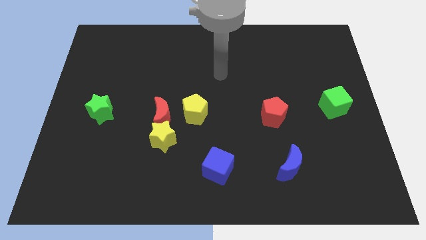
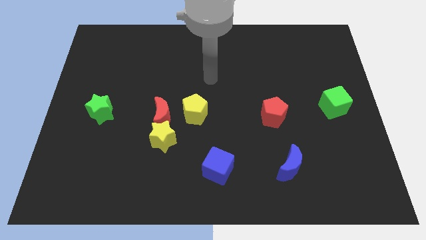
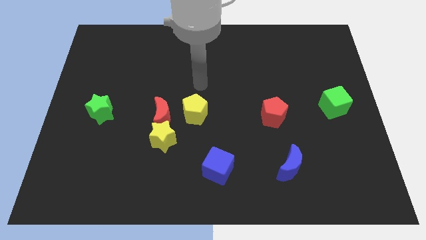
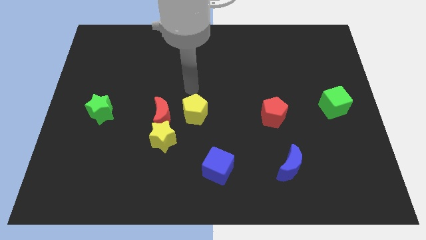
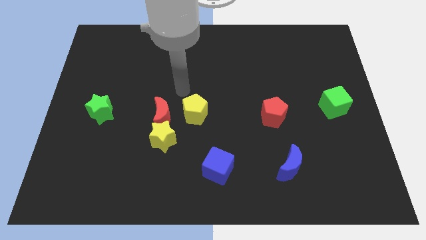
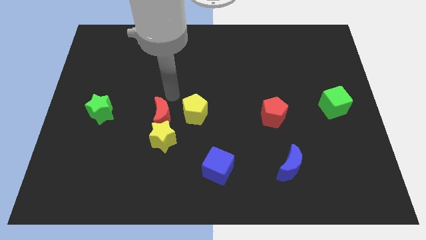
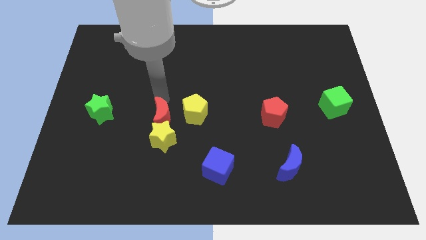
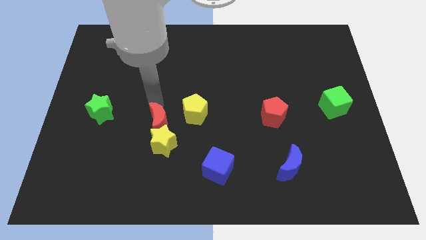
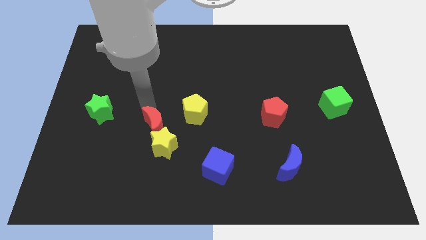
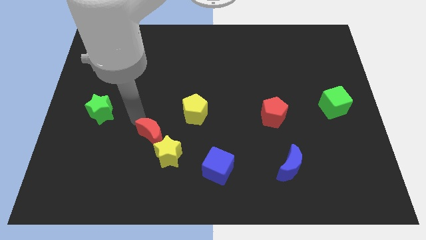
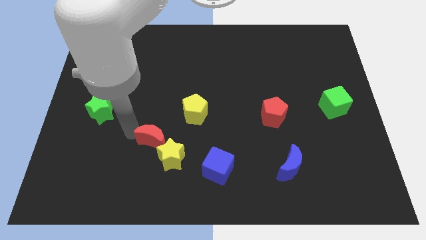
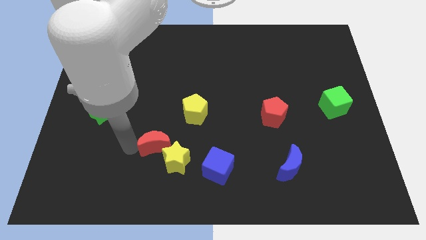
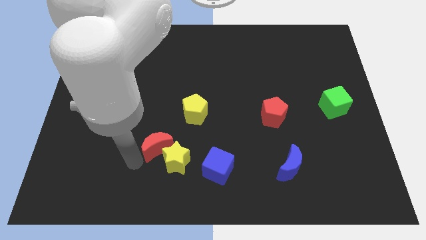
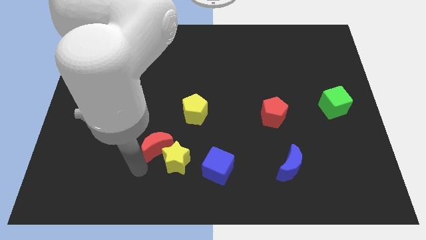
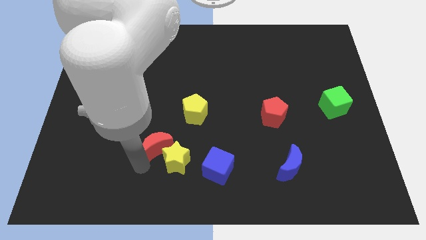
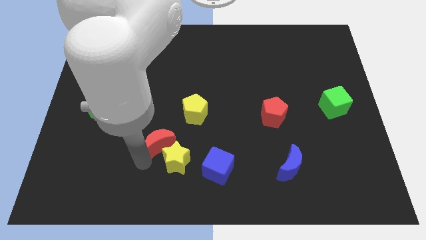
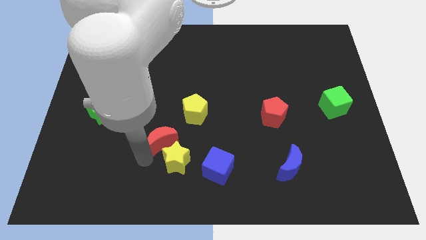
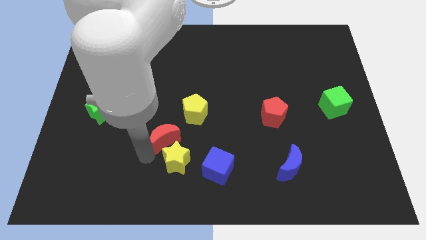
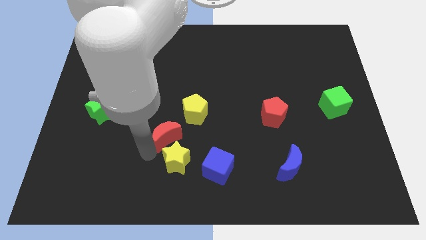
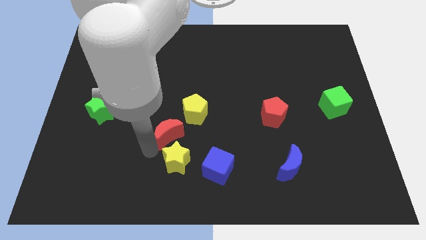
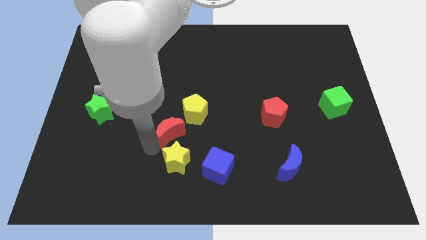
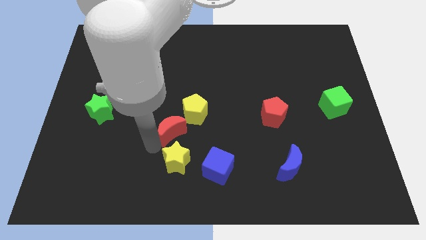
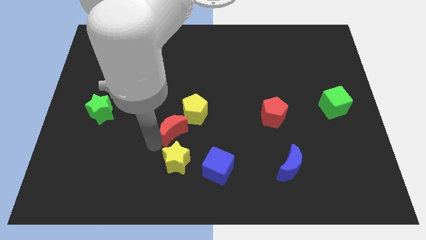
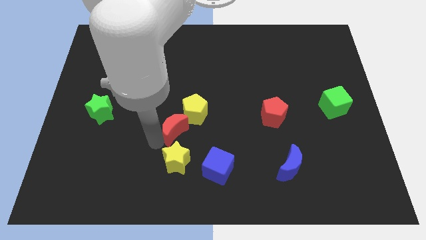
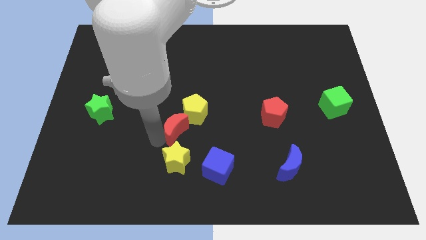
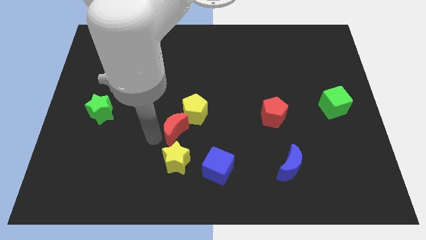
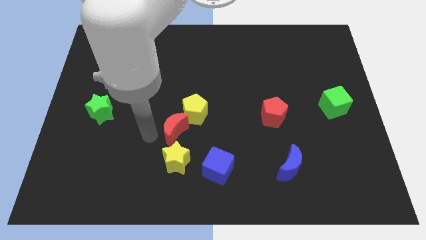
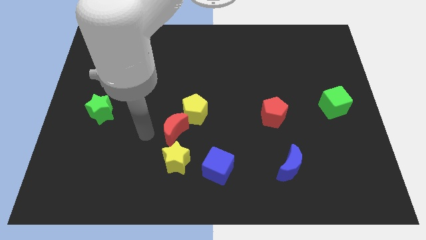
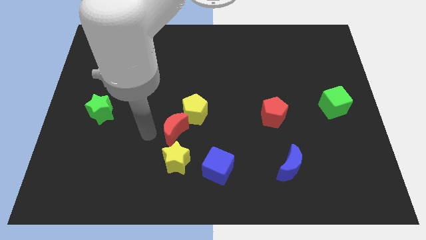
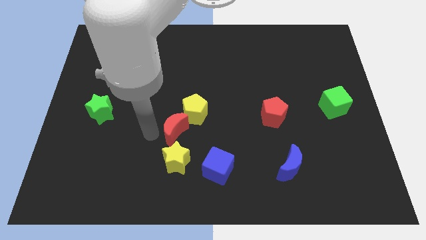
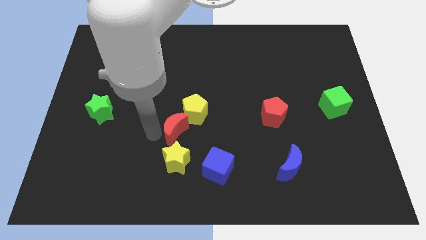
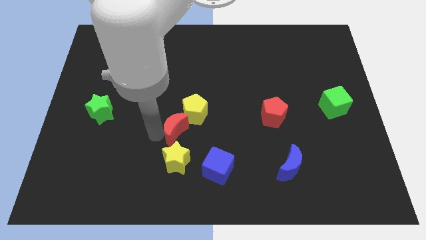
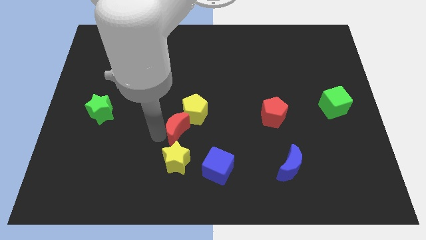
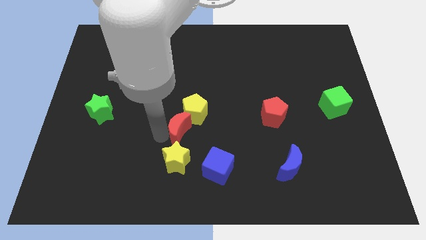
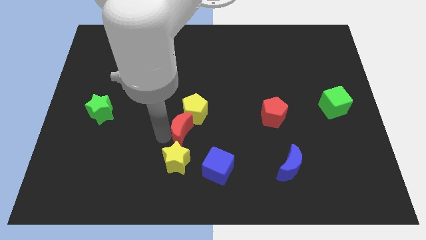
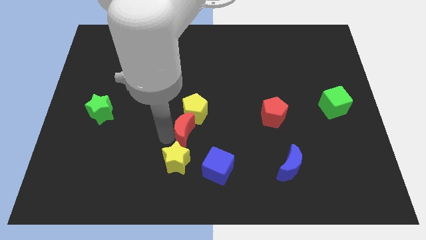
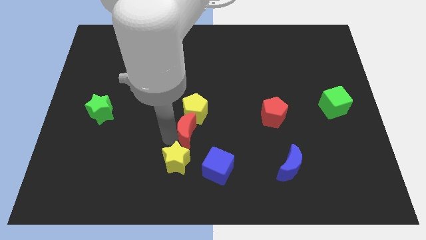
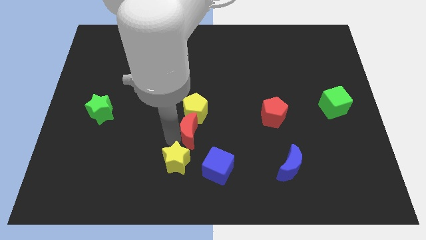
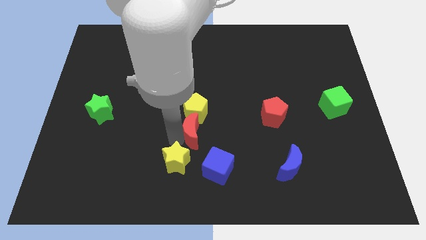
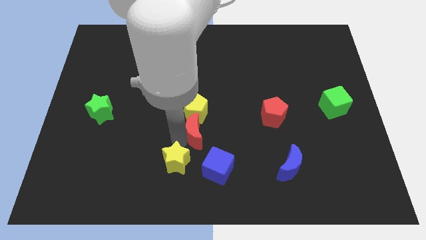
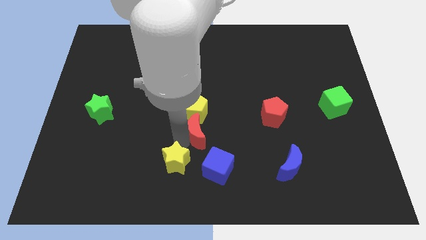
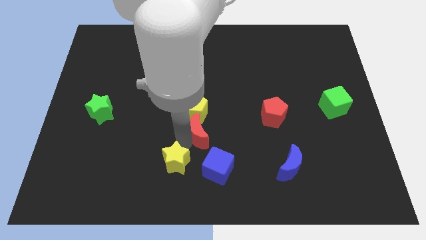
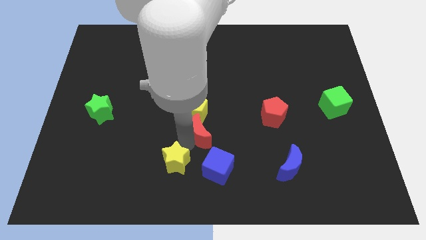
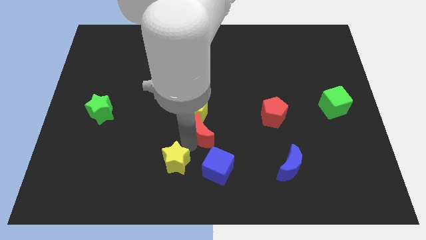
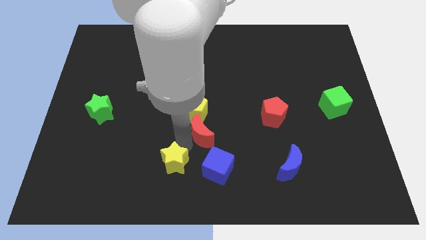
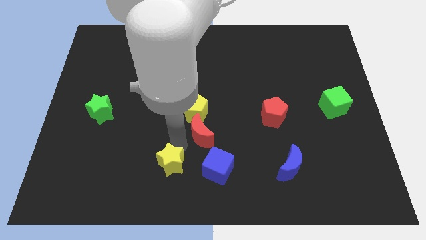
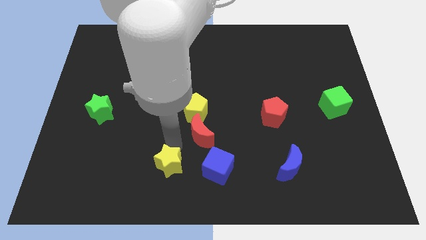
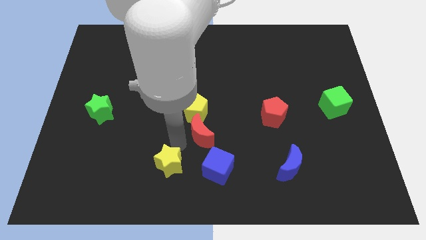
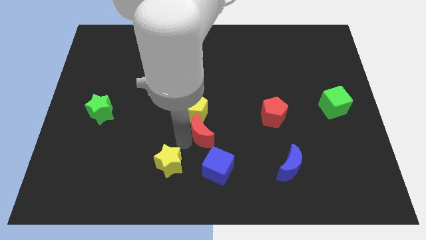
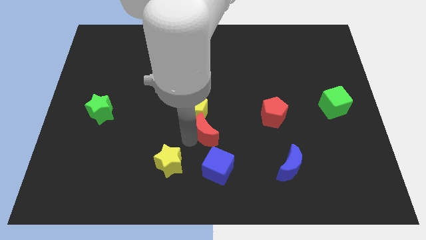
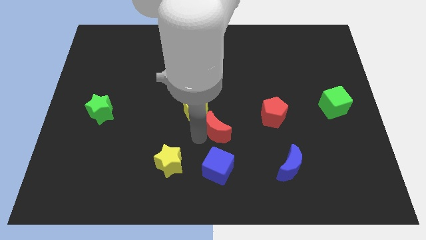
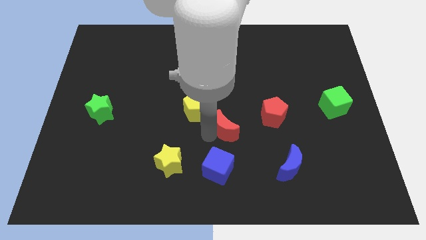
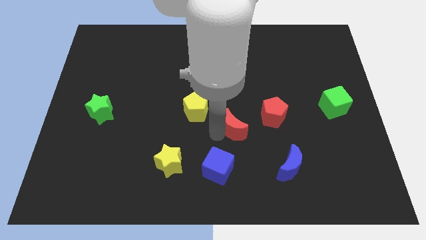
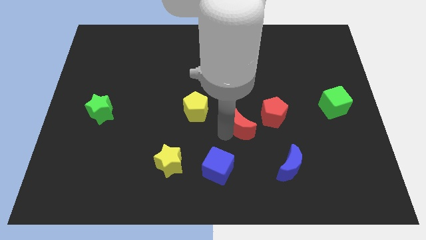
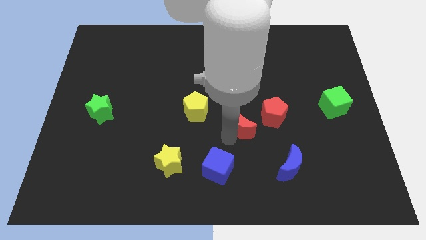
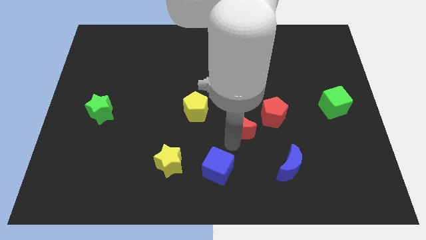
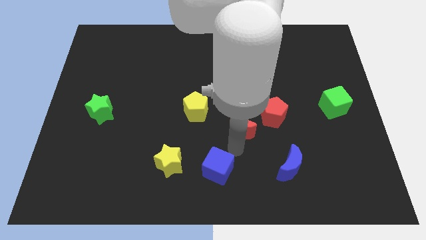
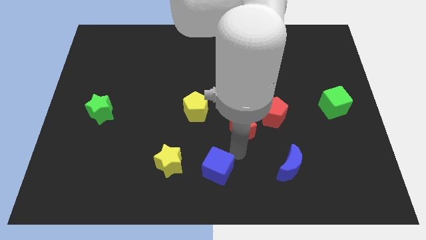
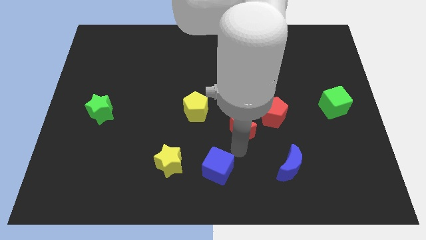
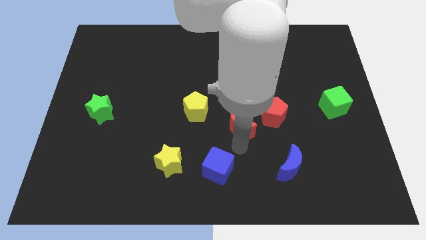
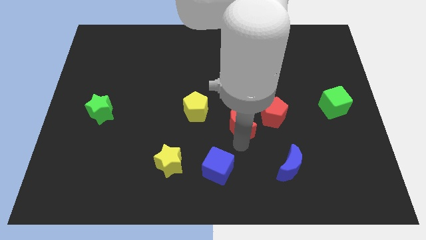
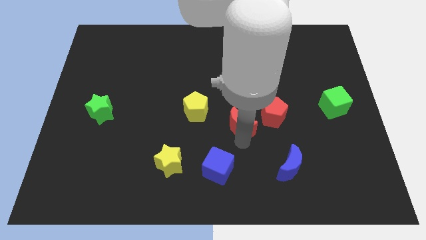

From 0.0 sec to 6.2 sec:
push the red moon just right of the yellow pentagon

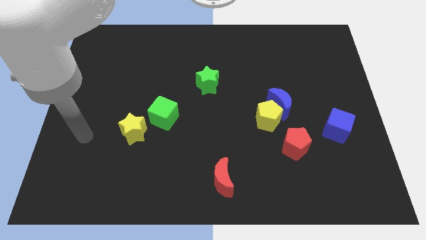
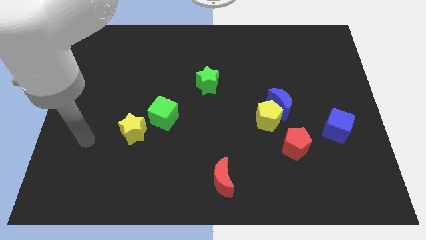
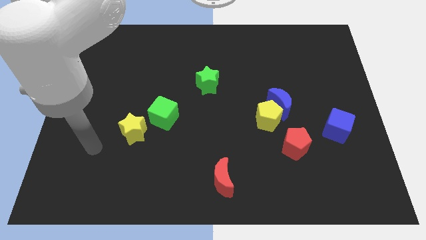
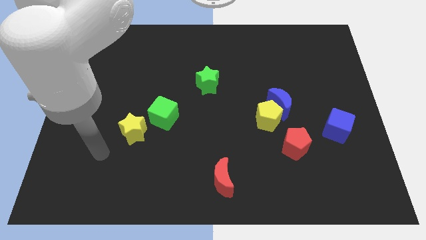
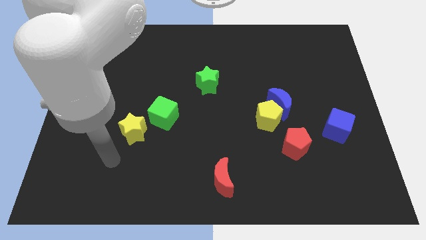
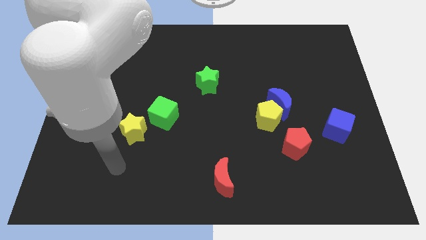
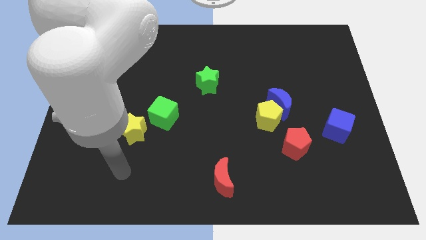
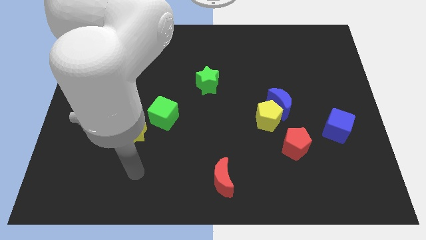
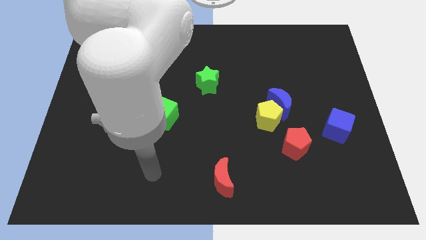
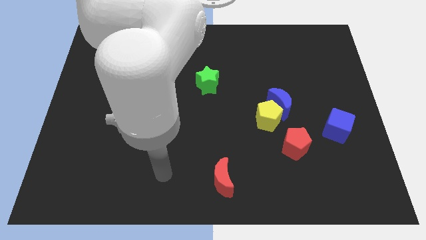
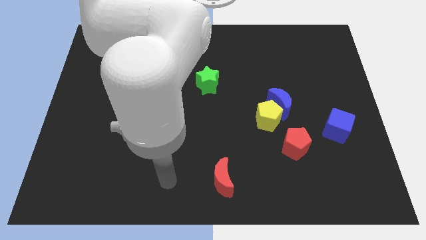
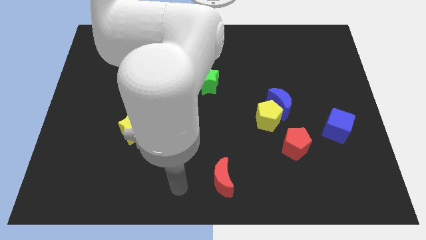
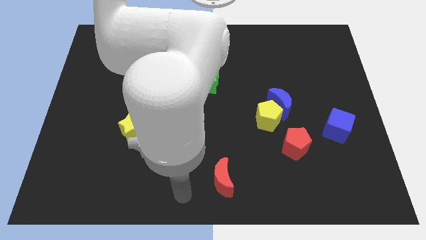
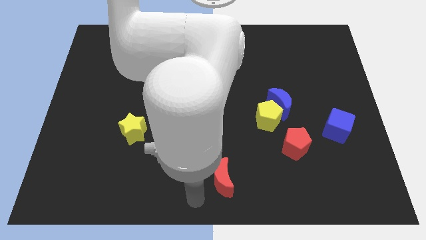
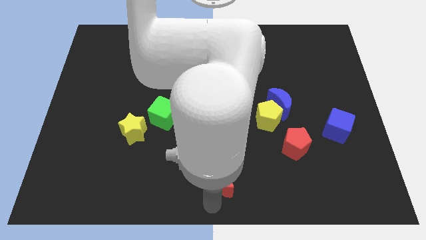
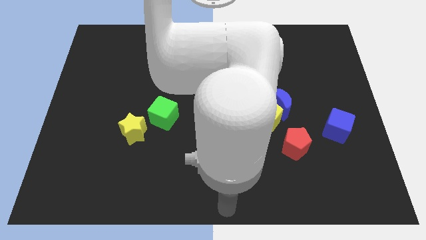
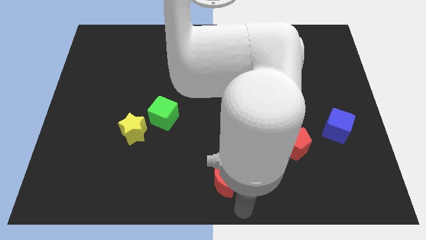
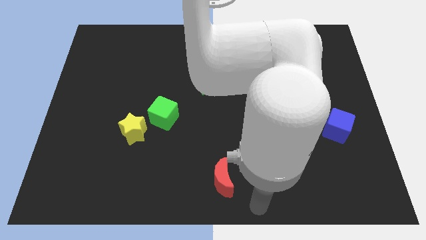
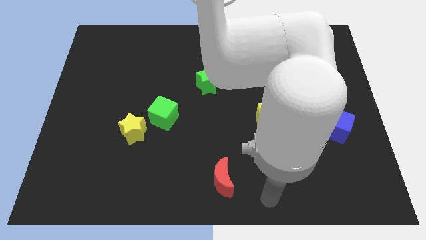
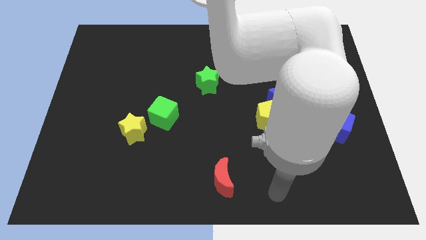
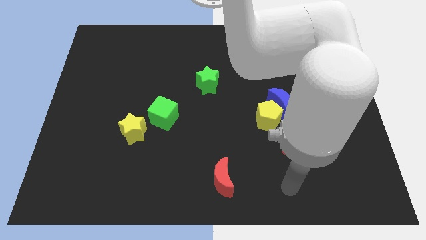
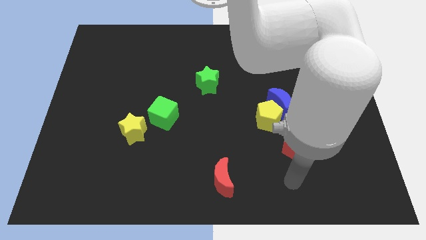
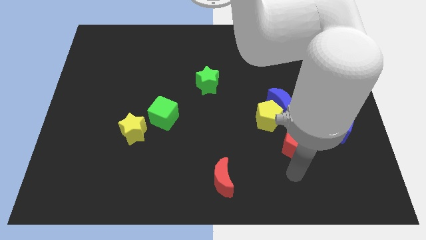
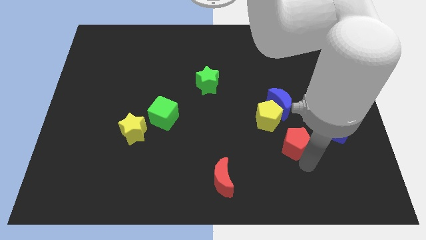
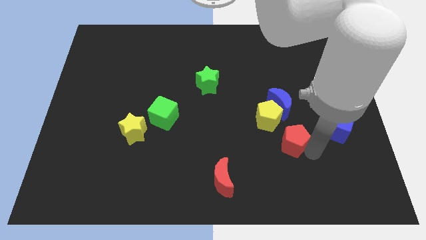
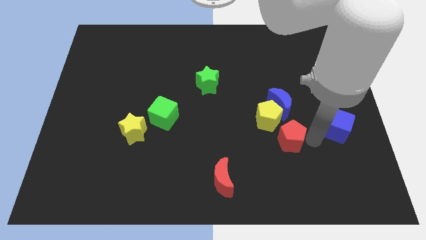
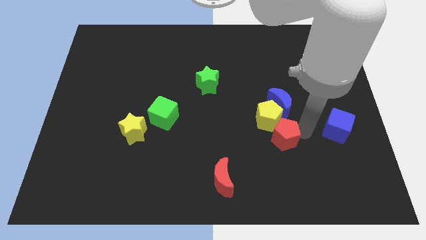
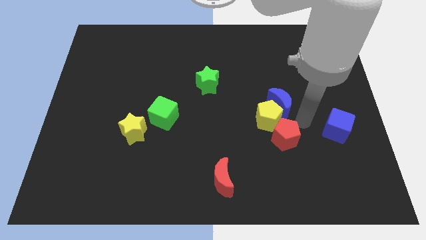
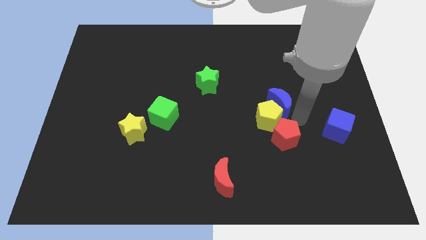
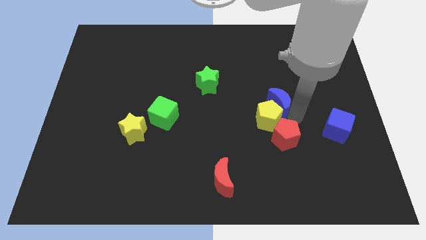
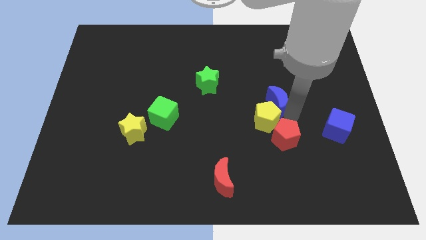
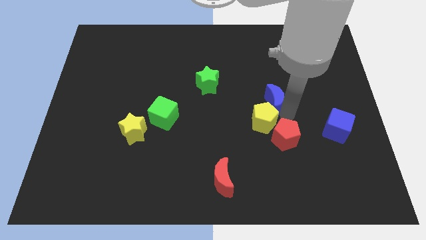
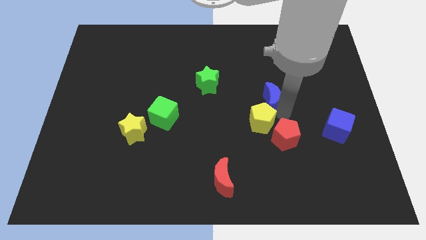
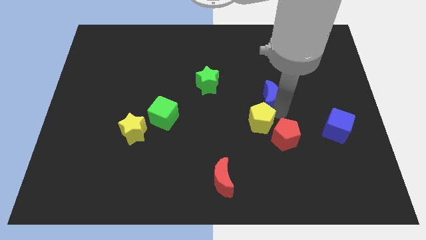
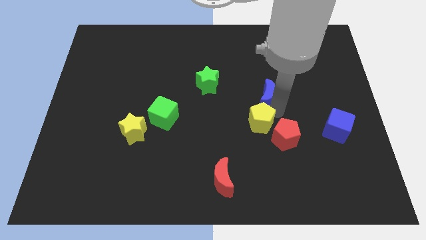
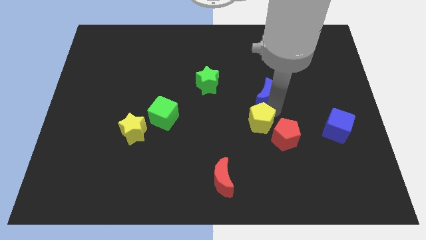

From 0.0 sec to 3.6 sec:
push the blue moon right of the green star
